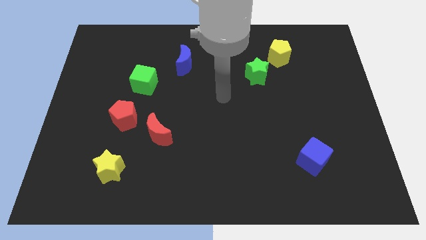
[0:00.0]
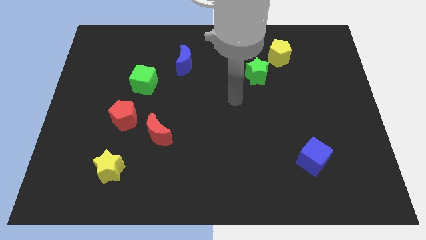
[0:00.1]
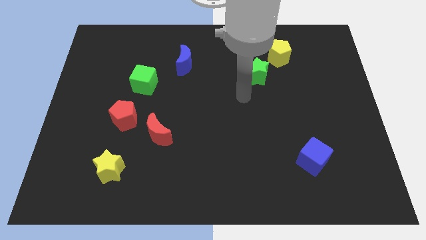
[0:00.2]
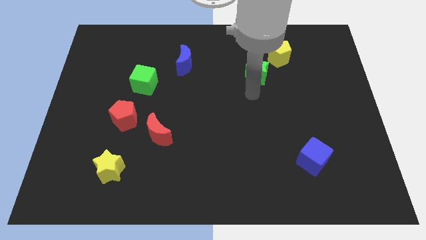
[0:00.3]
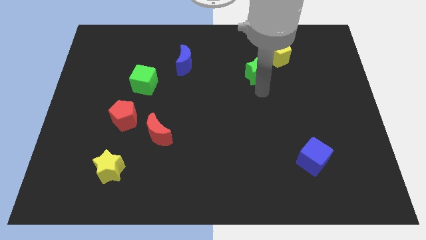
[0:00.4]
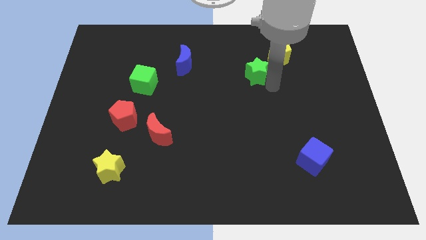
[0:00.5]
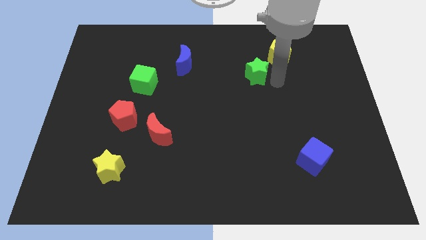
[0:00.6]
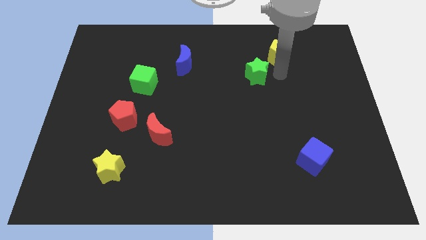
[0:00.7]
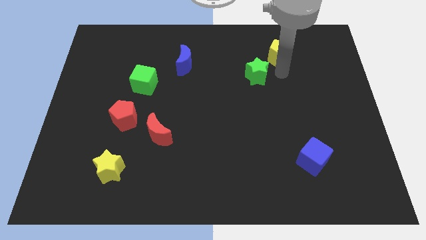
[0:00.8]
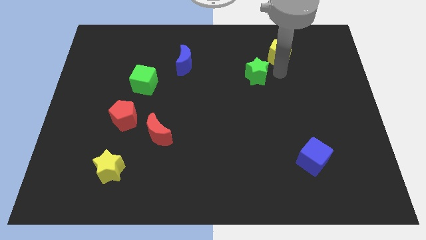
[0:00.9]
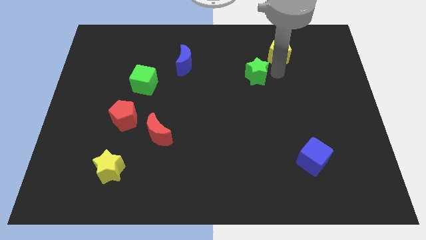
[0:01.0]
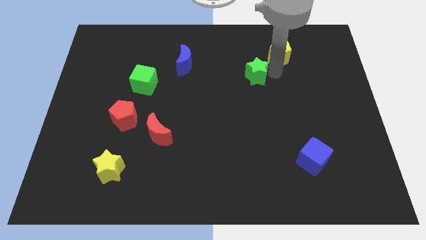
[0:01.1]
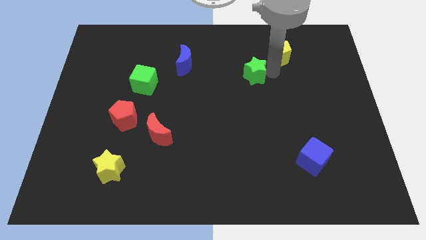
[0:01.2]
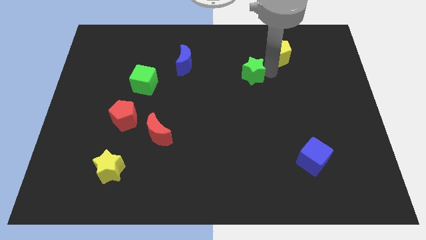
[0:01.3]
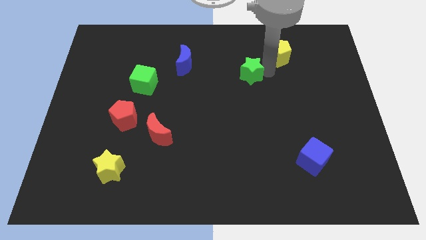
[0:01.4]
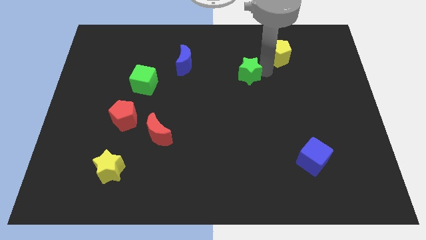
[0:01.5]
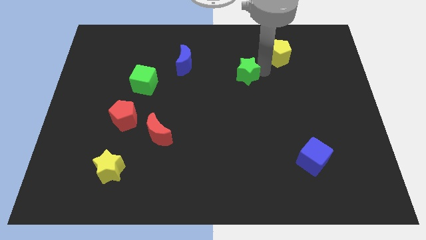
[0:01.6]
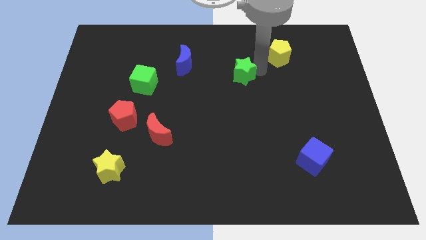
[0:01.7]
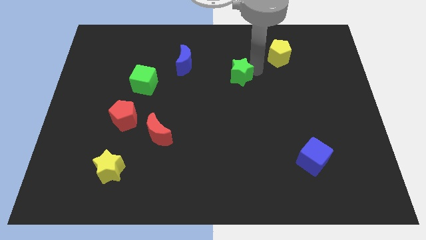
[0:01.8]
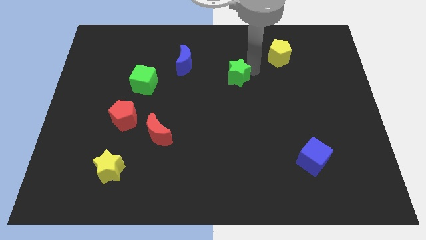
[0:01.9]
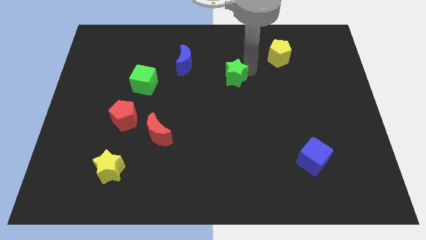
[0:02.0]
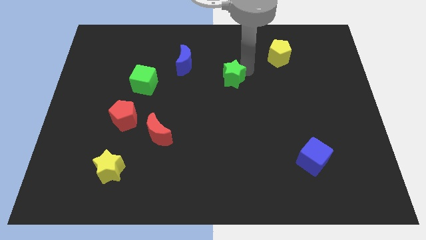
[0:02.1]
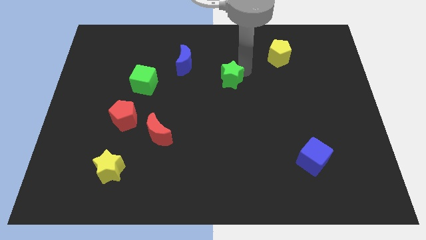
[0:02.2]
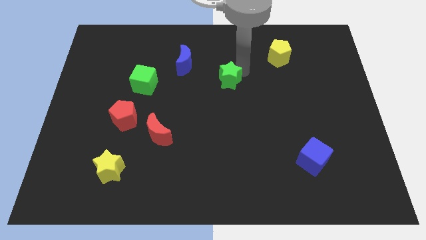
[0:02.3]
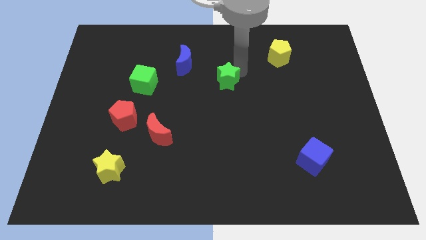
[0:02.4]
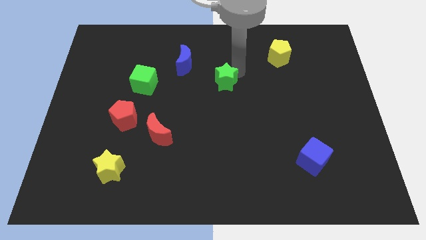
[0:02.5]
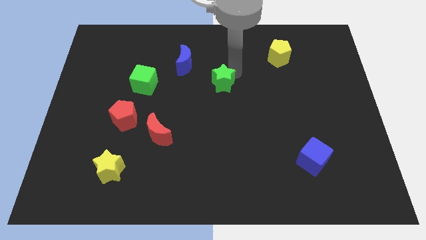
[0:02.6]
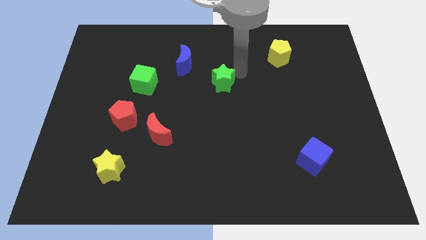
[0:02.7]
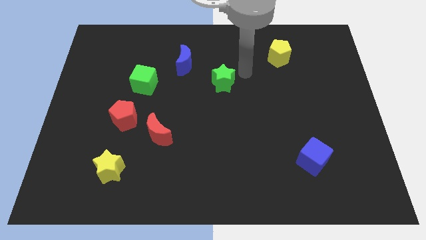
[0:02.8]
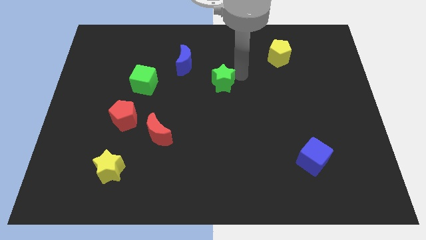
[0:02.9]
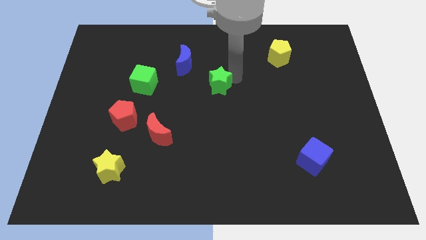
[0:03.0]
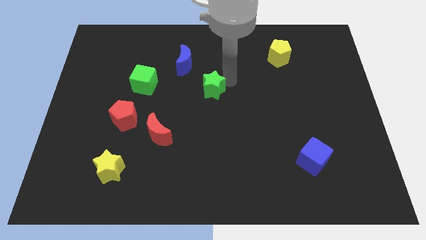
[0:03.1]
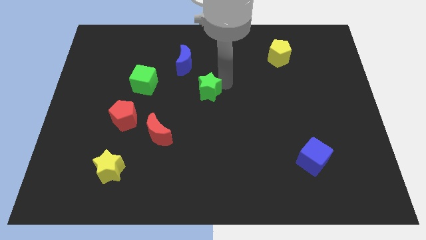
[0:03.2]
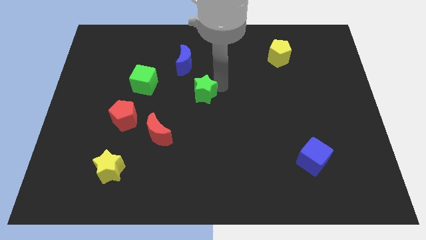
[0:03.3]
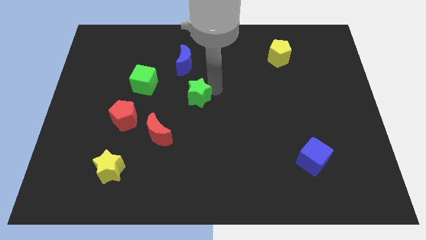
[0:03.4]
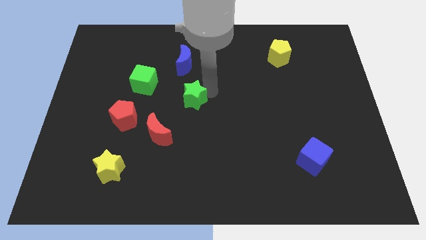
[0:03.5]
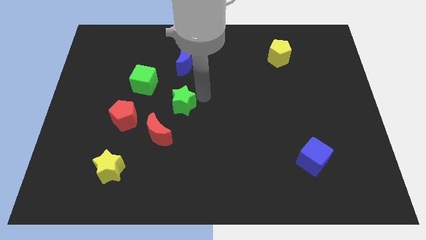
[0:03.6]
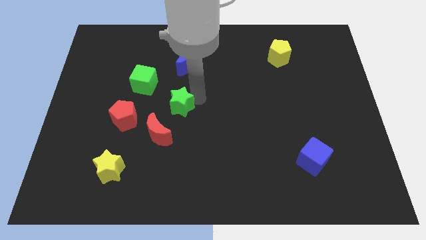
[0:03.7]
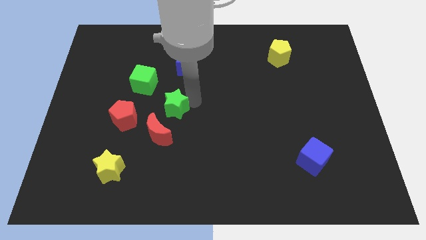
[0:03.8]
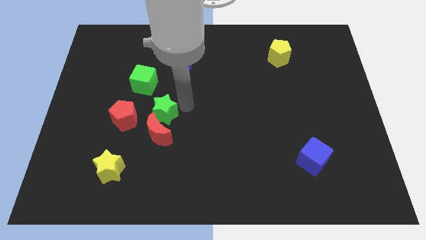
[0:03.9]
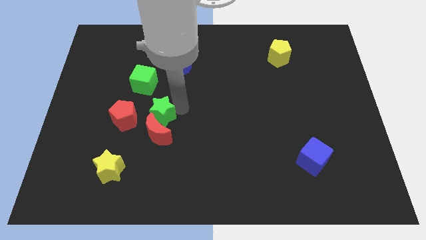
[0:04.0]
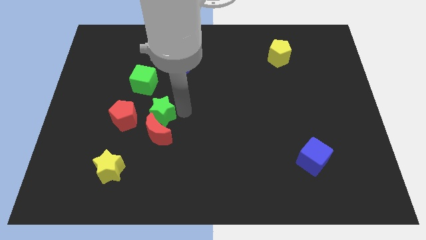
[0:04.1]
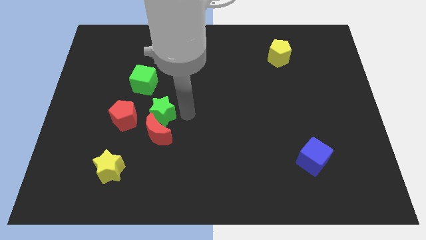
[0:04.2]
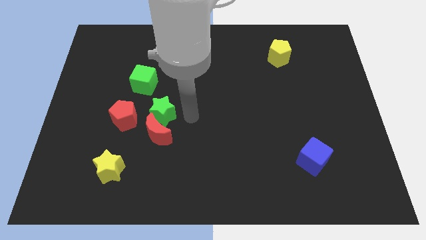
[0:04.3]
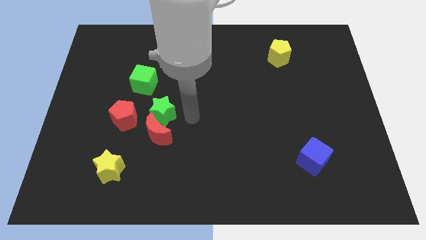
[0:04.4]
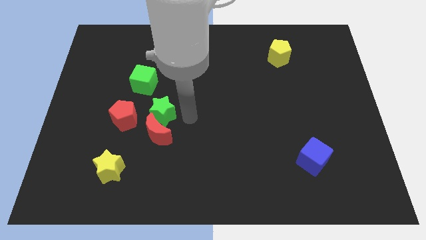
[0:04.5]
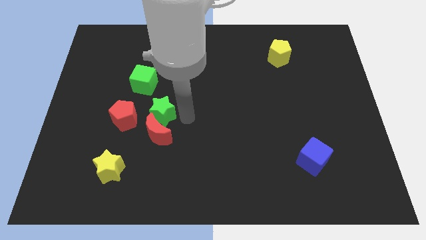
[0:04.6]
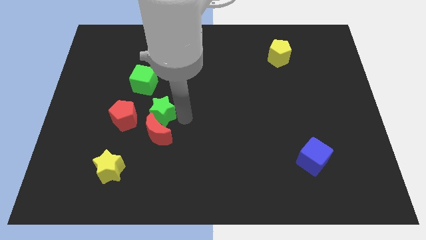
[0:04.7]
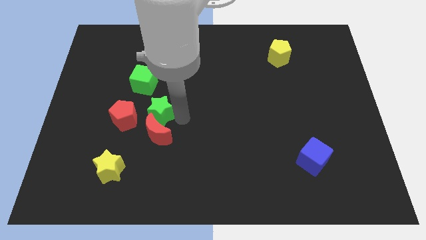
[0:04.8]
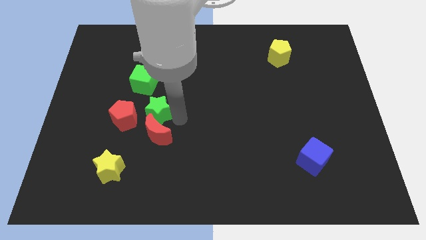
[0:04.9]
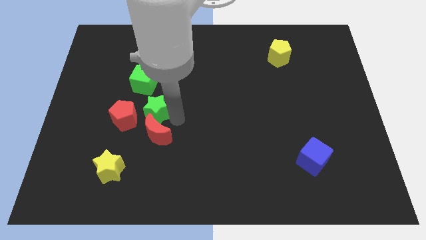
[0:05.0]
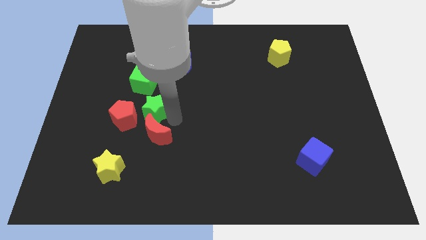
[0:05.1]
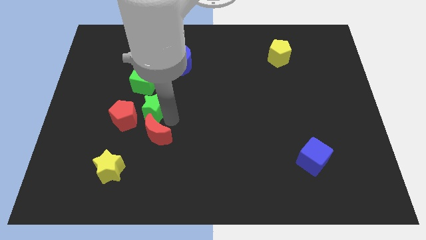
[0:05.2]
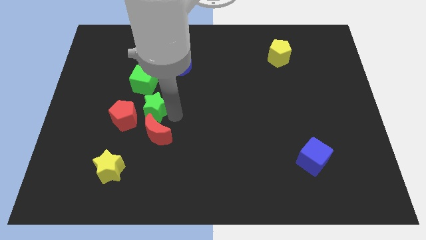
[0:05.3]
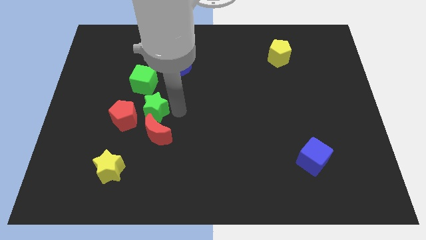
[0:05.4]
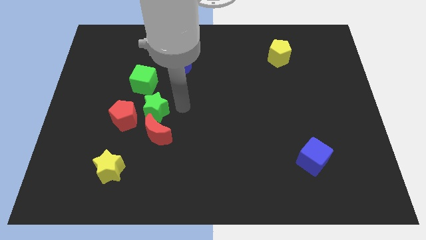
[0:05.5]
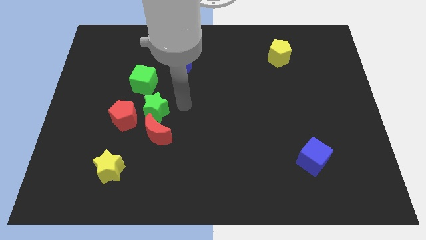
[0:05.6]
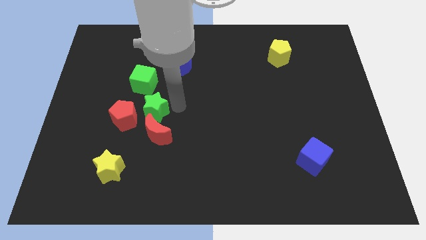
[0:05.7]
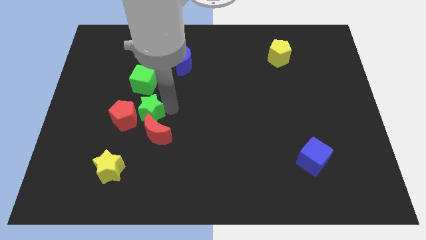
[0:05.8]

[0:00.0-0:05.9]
move the green star towards the red pentagon

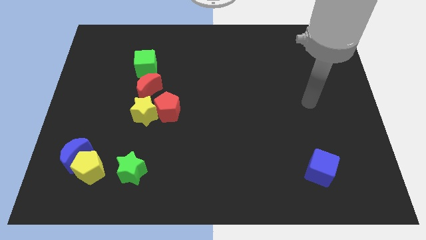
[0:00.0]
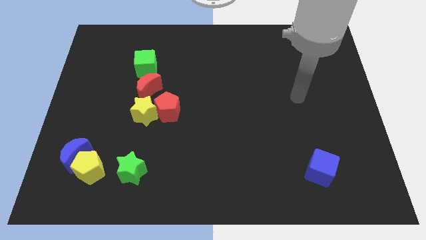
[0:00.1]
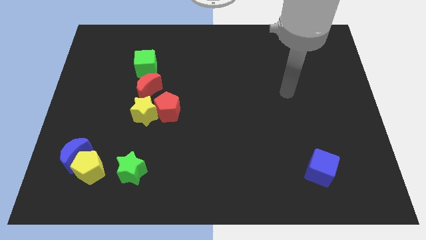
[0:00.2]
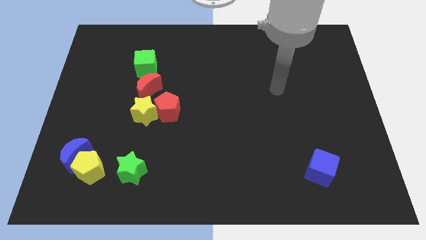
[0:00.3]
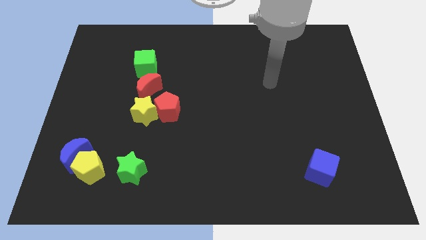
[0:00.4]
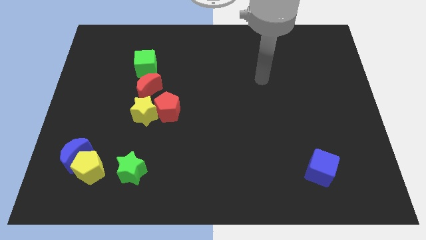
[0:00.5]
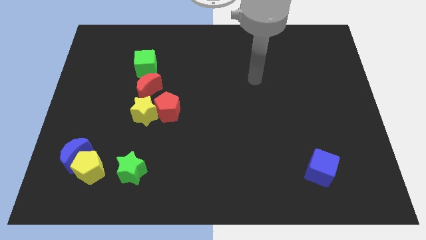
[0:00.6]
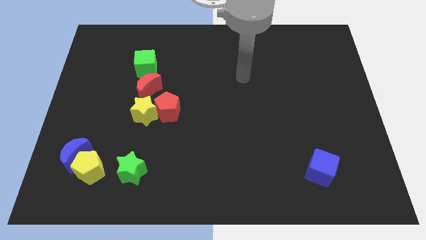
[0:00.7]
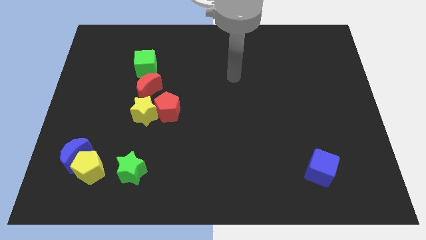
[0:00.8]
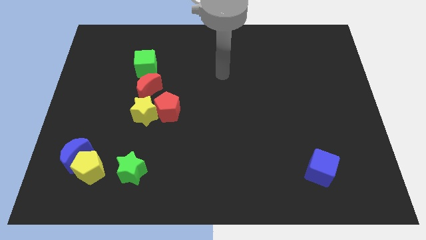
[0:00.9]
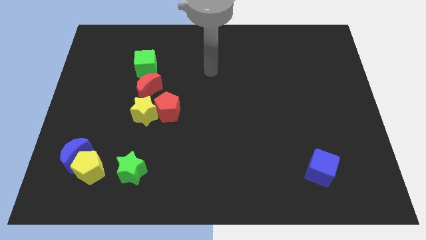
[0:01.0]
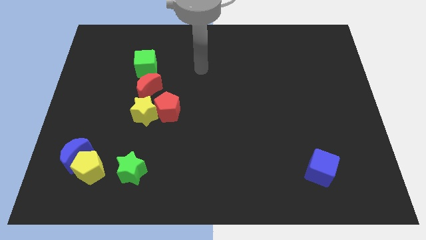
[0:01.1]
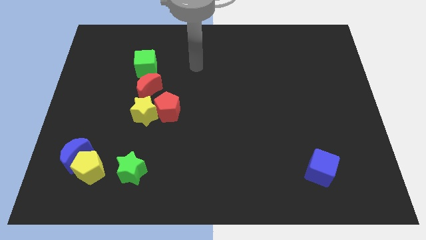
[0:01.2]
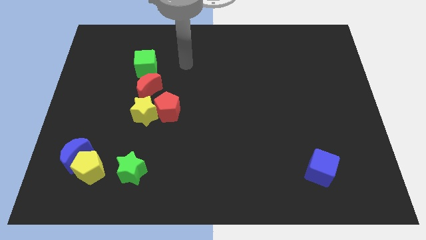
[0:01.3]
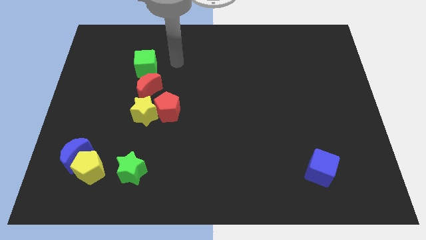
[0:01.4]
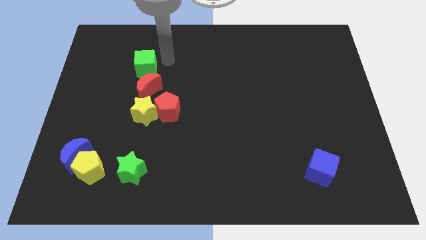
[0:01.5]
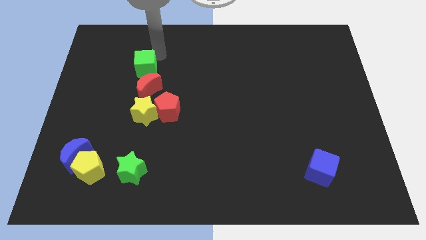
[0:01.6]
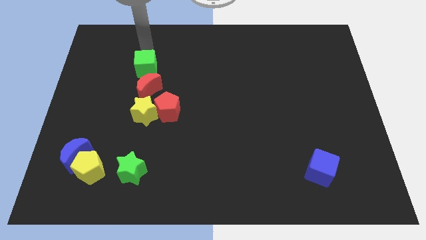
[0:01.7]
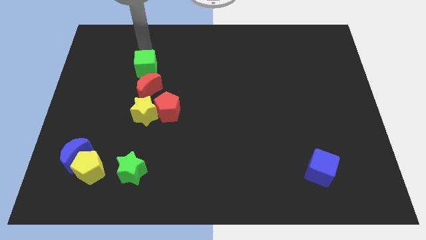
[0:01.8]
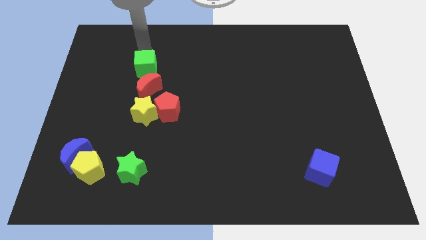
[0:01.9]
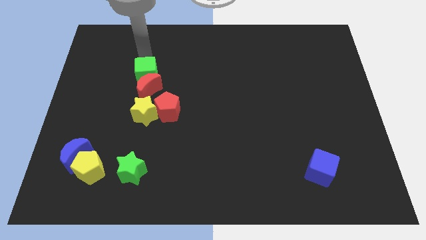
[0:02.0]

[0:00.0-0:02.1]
move the green cube next to the red moon
